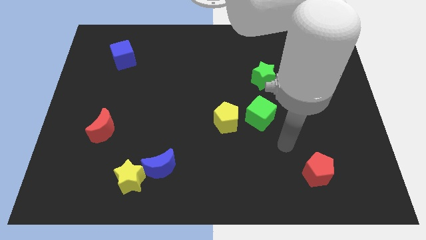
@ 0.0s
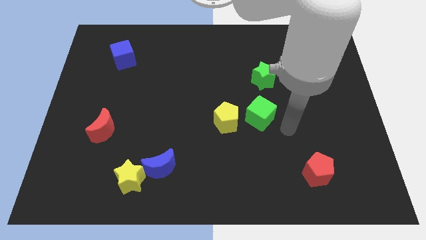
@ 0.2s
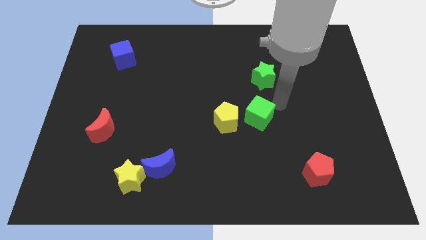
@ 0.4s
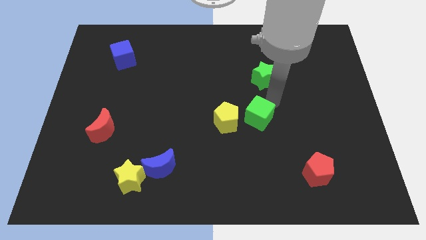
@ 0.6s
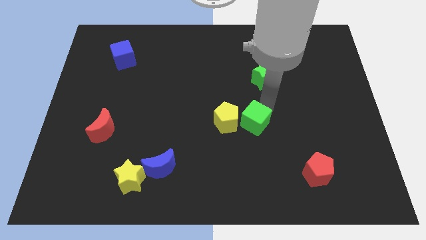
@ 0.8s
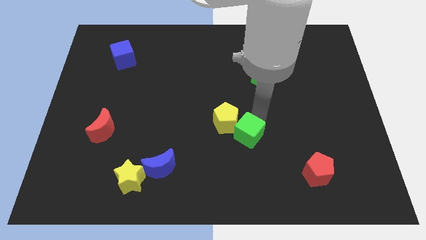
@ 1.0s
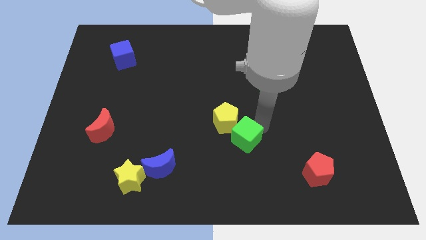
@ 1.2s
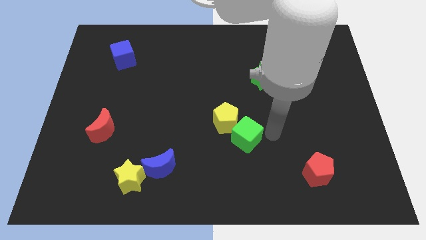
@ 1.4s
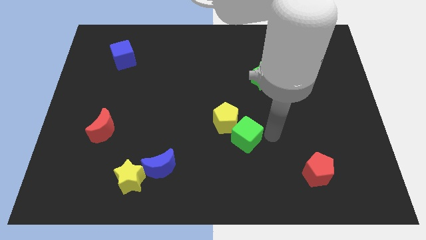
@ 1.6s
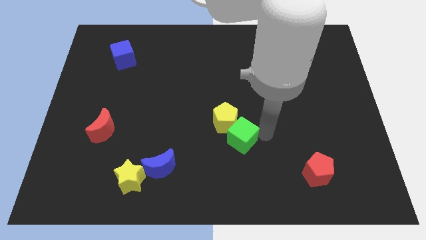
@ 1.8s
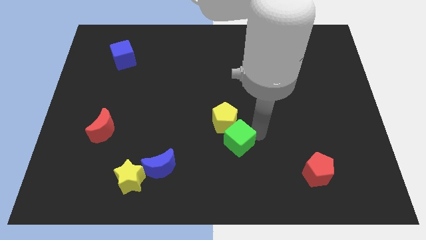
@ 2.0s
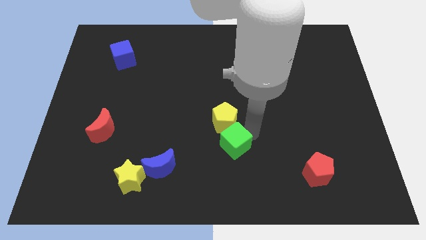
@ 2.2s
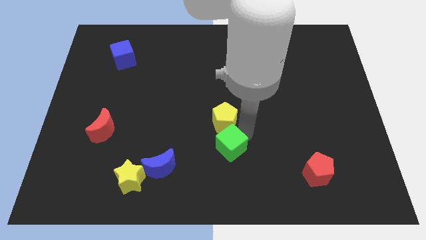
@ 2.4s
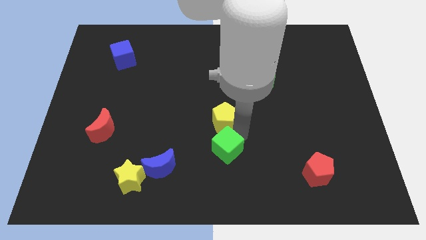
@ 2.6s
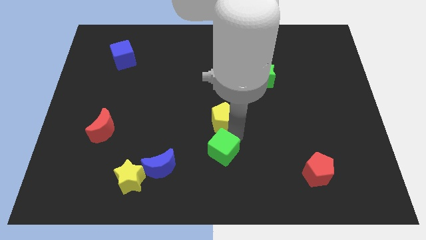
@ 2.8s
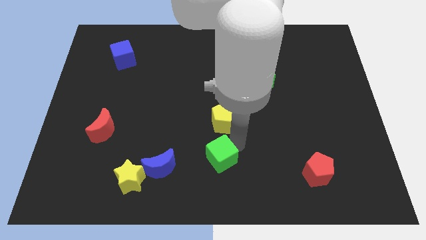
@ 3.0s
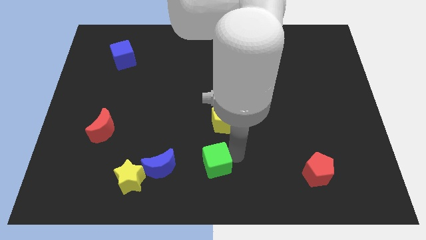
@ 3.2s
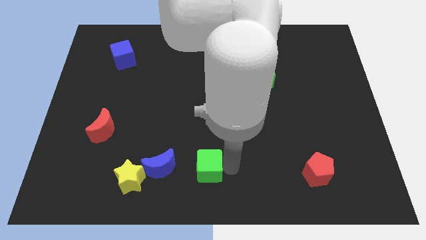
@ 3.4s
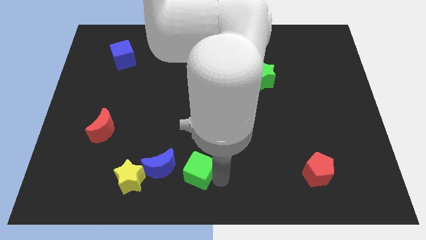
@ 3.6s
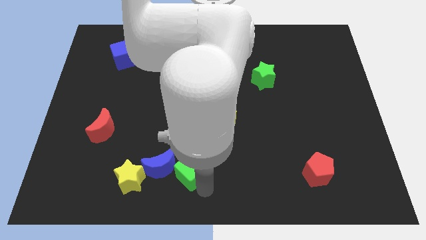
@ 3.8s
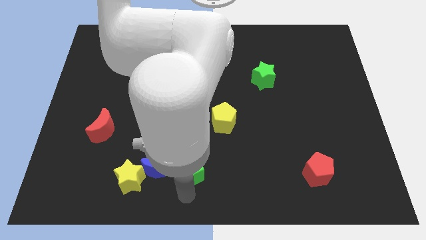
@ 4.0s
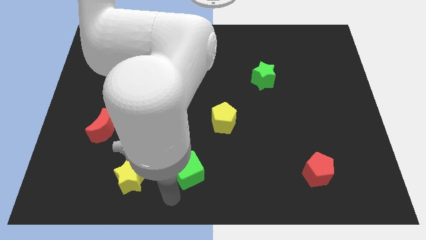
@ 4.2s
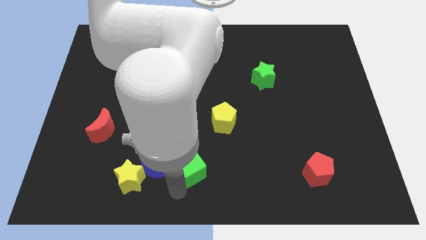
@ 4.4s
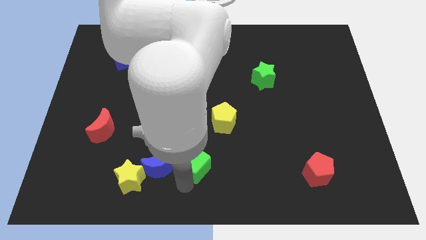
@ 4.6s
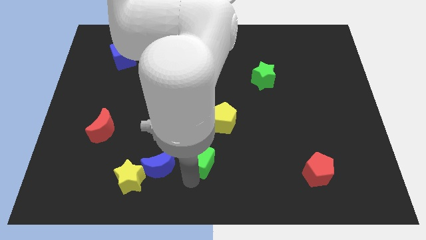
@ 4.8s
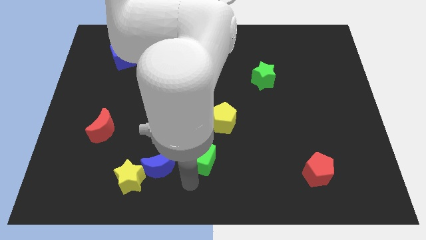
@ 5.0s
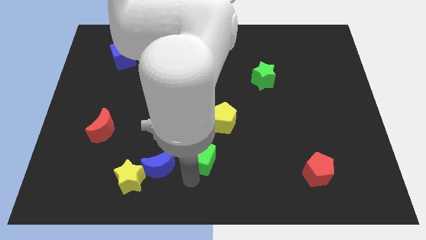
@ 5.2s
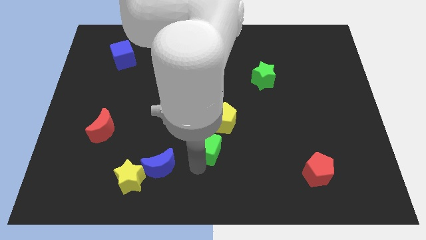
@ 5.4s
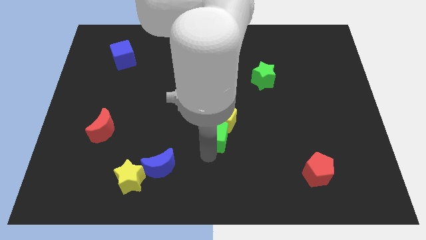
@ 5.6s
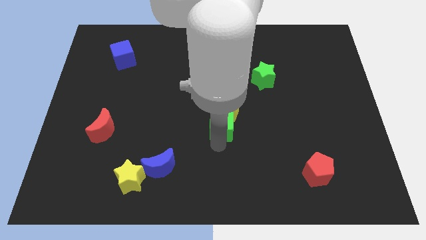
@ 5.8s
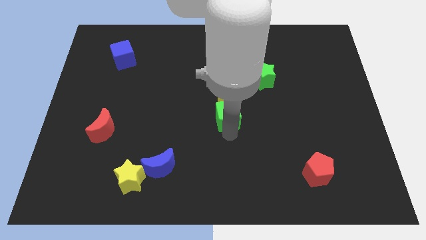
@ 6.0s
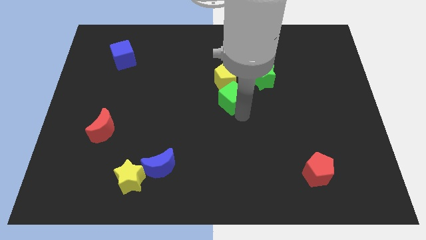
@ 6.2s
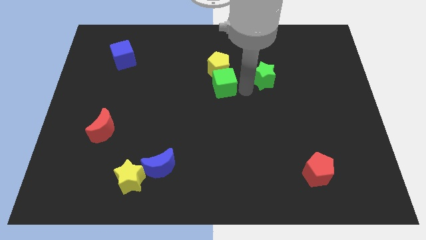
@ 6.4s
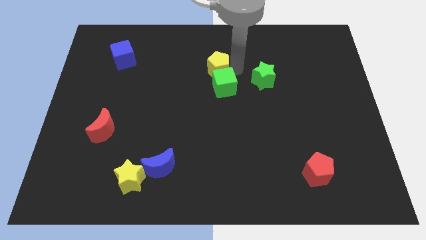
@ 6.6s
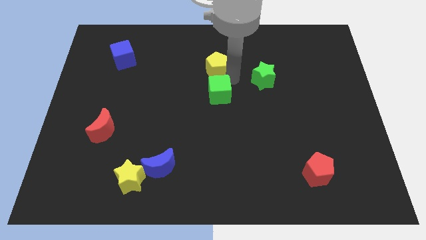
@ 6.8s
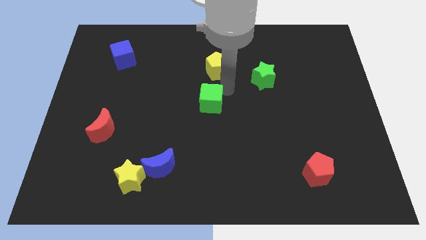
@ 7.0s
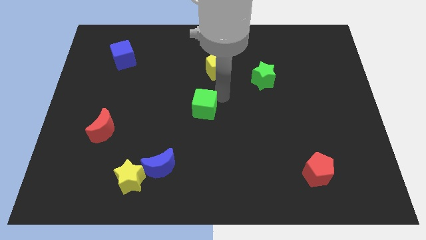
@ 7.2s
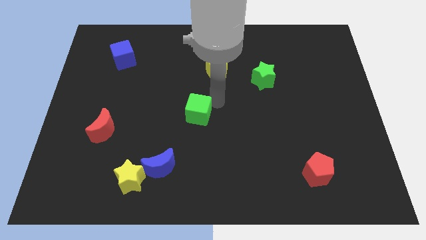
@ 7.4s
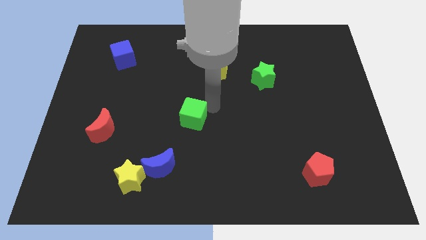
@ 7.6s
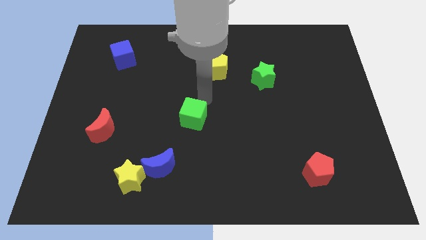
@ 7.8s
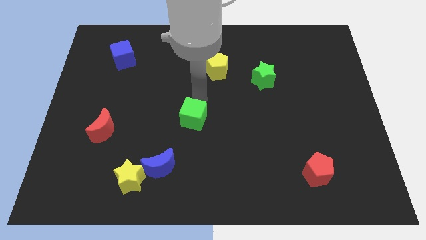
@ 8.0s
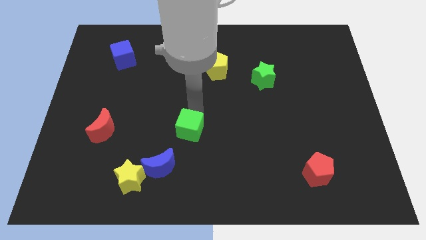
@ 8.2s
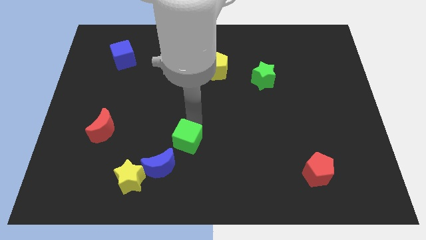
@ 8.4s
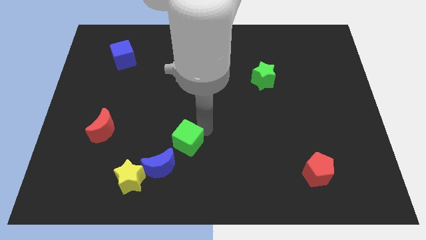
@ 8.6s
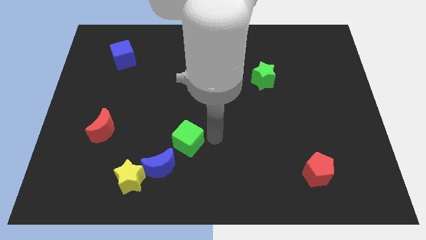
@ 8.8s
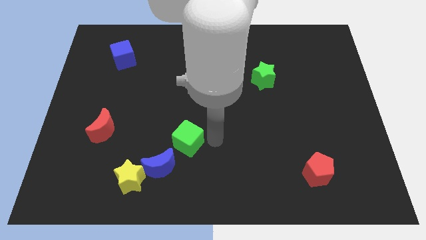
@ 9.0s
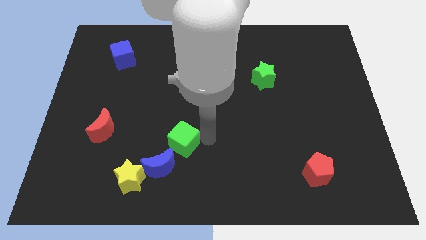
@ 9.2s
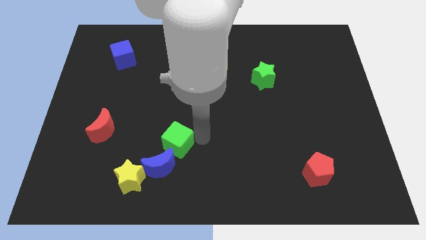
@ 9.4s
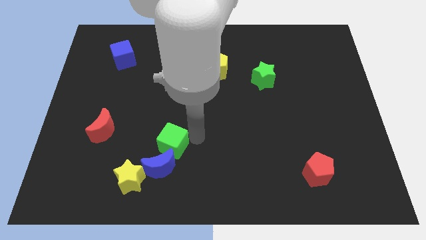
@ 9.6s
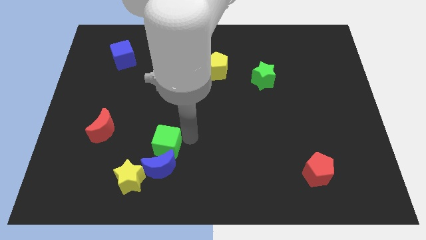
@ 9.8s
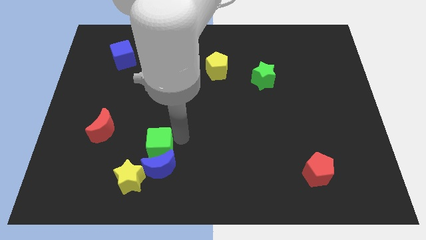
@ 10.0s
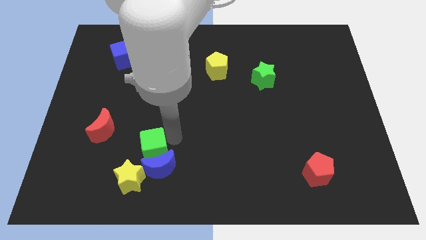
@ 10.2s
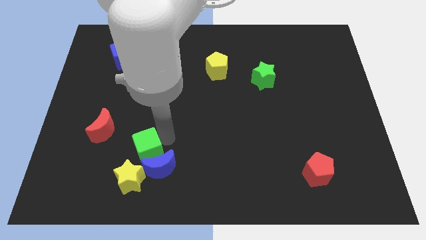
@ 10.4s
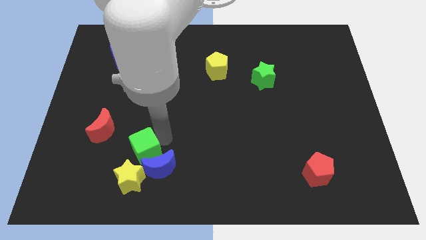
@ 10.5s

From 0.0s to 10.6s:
slide the green cube just left of the blue moon

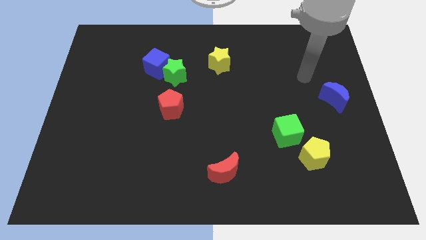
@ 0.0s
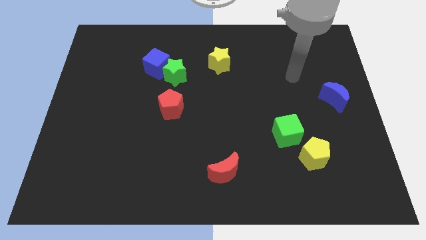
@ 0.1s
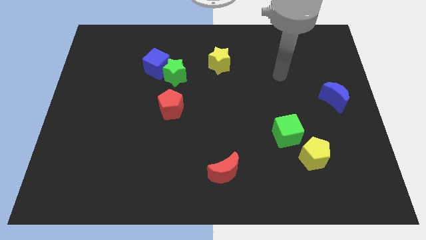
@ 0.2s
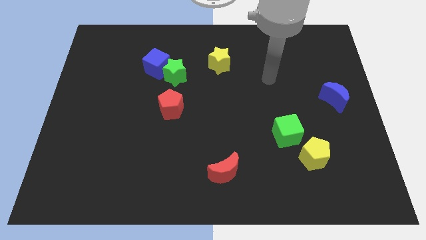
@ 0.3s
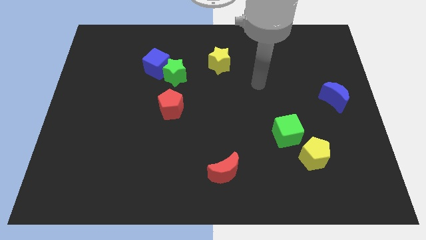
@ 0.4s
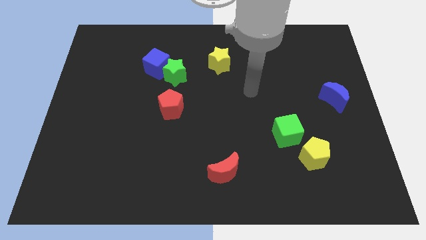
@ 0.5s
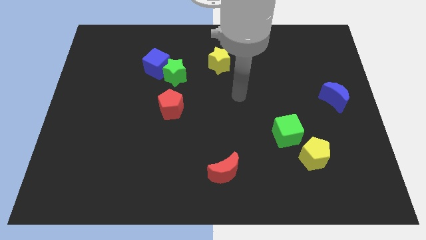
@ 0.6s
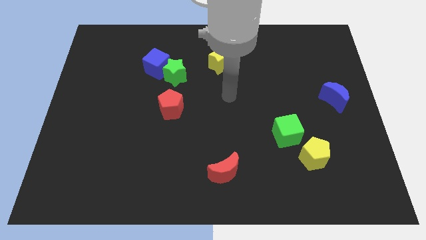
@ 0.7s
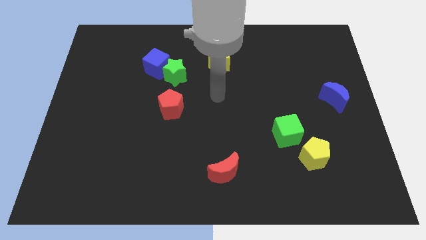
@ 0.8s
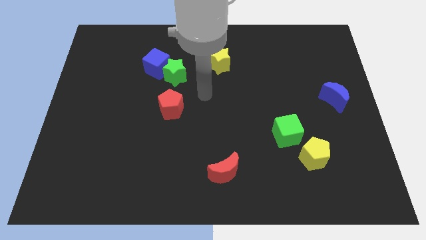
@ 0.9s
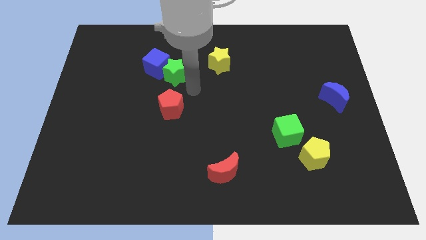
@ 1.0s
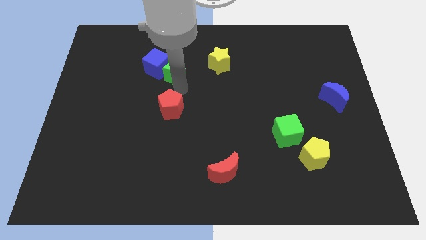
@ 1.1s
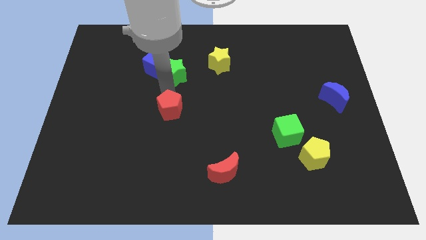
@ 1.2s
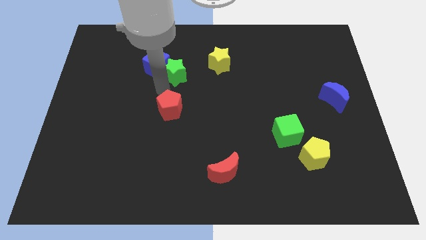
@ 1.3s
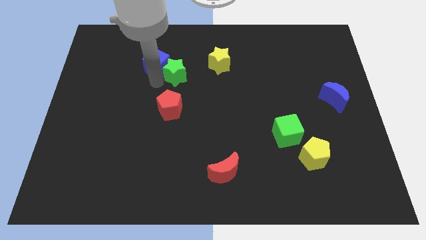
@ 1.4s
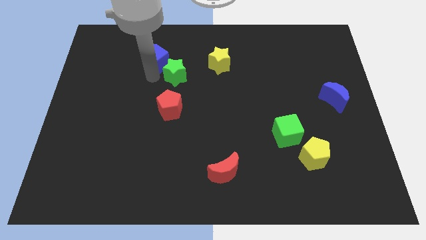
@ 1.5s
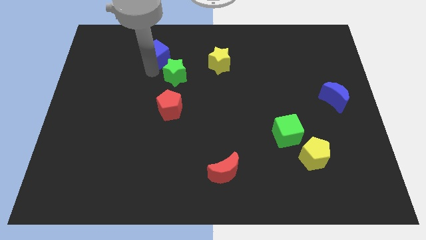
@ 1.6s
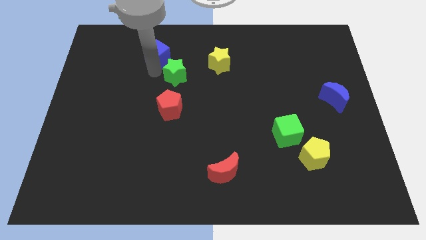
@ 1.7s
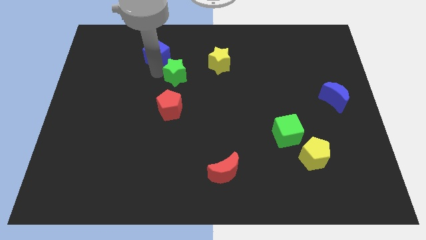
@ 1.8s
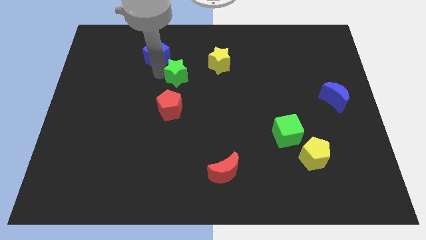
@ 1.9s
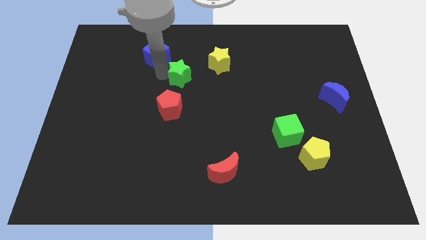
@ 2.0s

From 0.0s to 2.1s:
move the green star to the bottom left of the yellow star

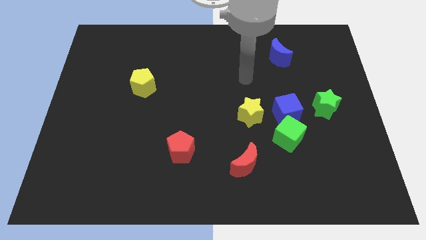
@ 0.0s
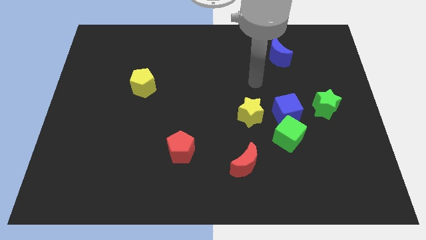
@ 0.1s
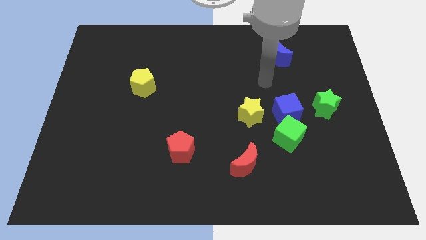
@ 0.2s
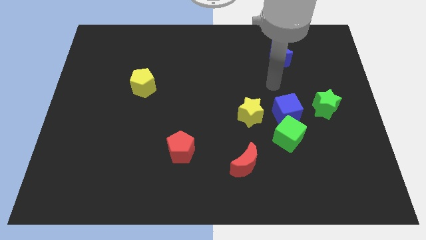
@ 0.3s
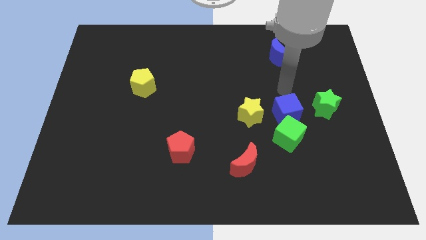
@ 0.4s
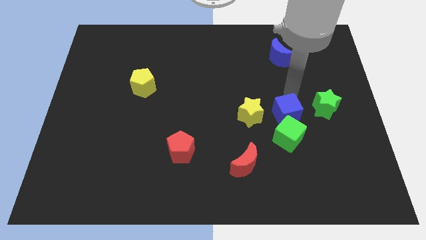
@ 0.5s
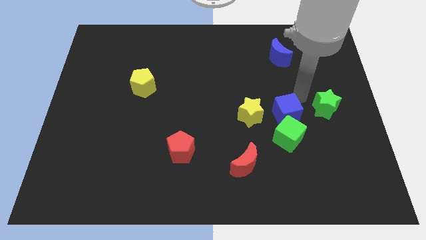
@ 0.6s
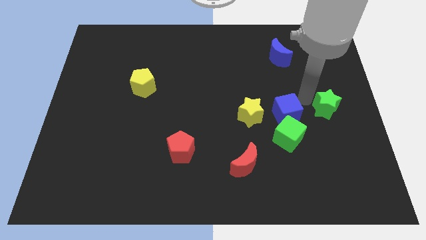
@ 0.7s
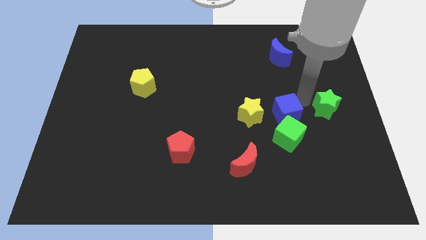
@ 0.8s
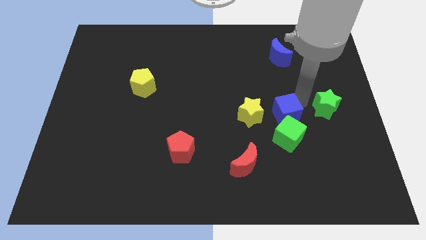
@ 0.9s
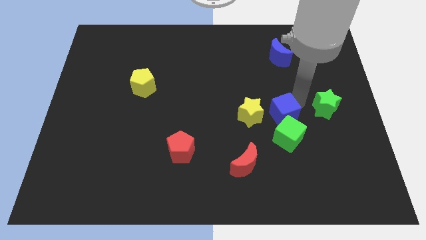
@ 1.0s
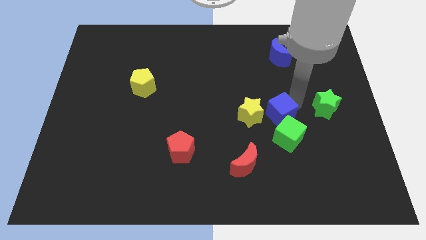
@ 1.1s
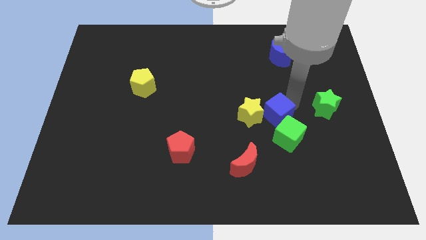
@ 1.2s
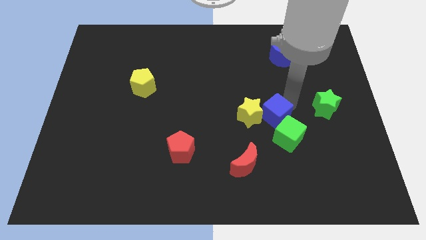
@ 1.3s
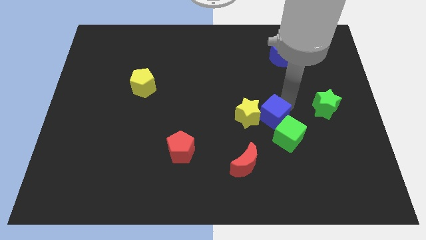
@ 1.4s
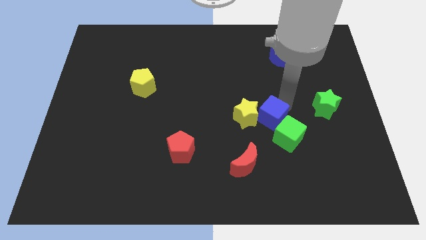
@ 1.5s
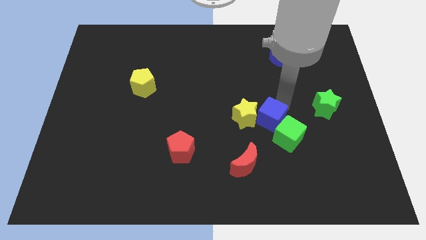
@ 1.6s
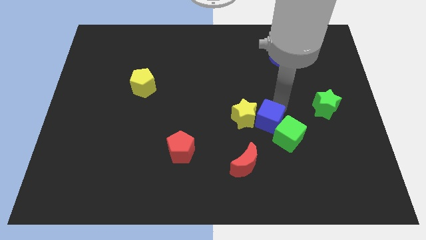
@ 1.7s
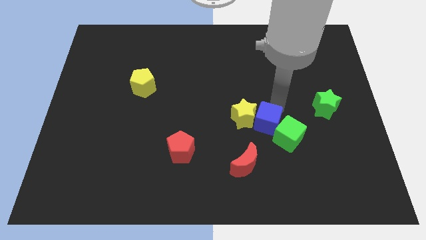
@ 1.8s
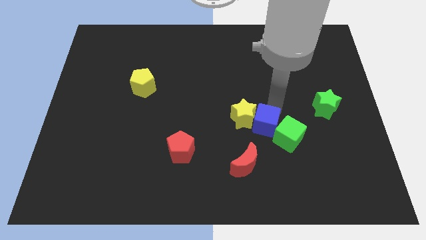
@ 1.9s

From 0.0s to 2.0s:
slide the blue cube to the top right of the red moon
